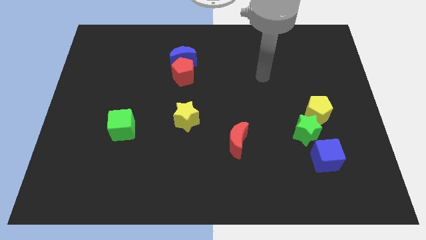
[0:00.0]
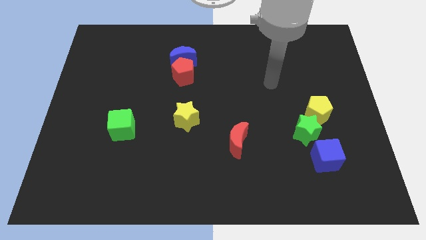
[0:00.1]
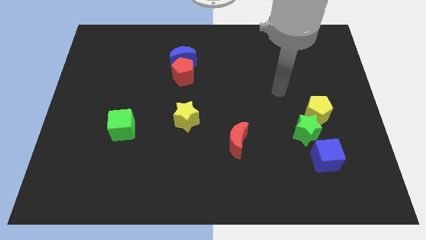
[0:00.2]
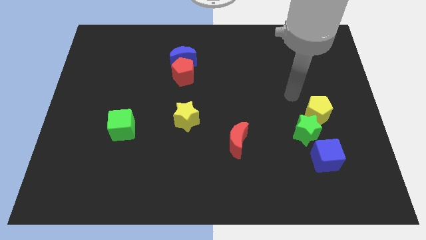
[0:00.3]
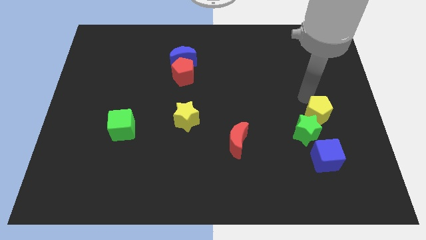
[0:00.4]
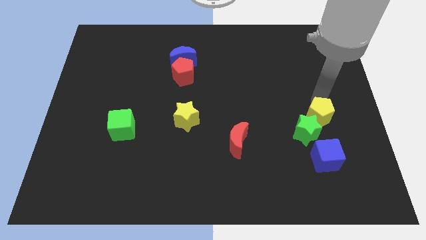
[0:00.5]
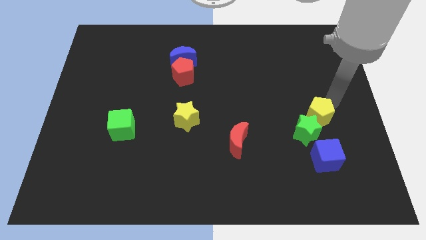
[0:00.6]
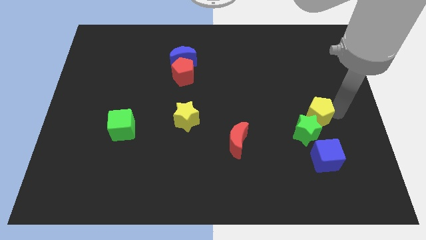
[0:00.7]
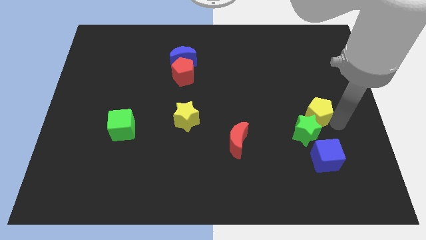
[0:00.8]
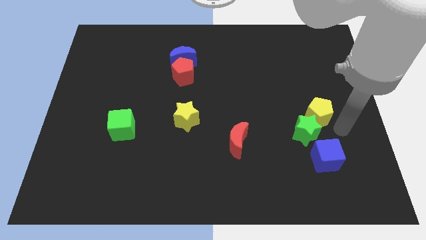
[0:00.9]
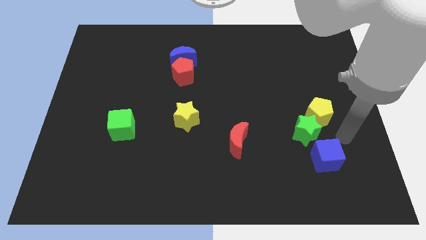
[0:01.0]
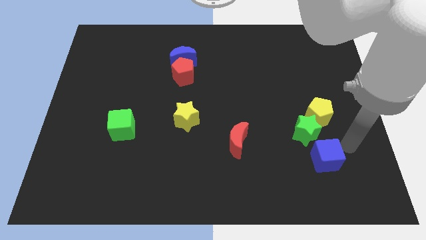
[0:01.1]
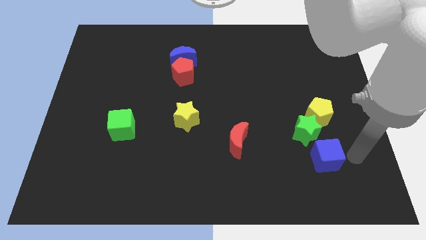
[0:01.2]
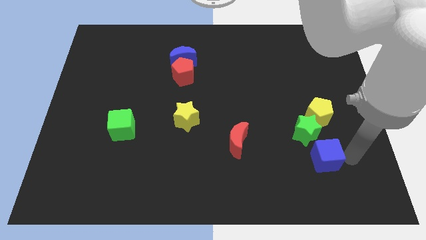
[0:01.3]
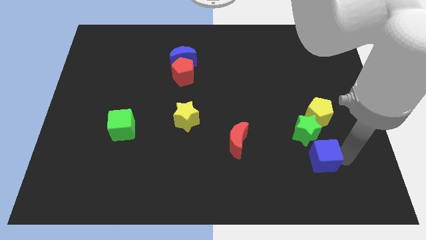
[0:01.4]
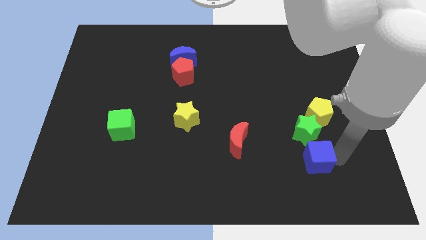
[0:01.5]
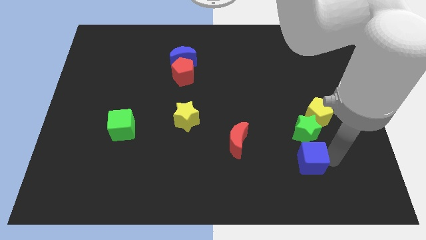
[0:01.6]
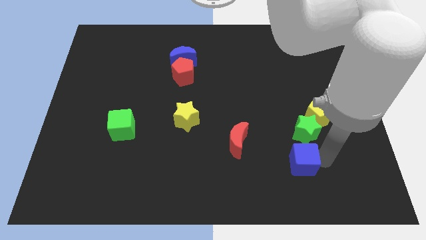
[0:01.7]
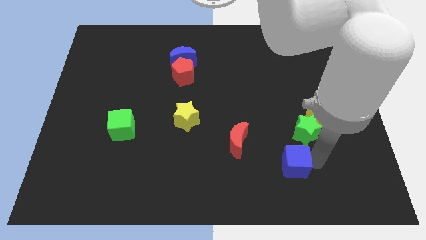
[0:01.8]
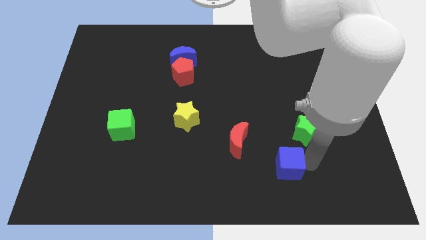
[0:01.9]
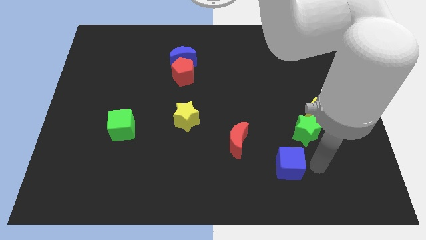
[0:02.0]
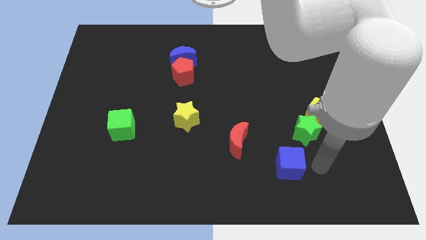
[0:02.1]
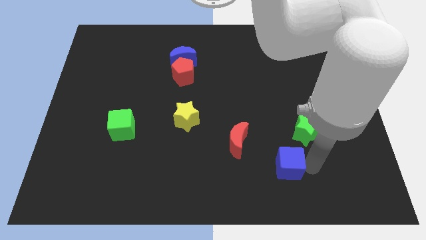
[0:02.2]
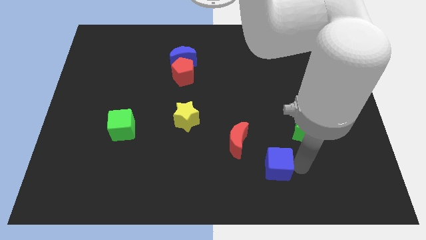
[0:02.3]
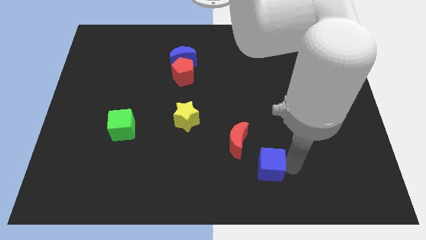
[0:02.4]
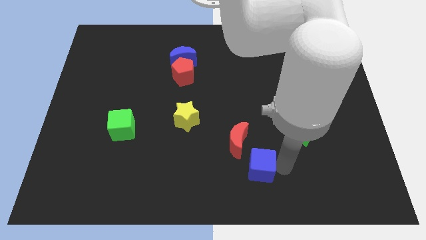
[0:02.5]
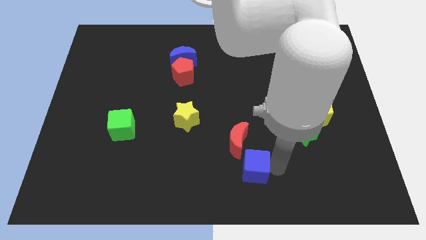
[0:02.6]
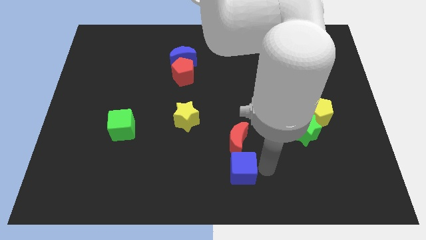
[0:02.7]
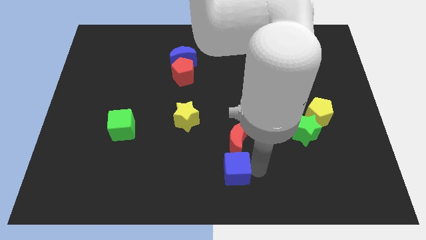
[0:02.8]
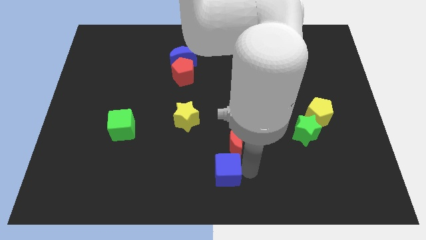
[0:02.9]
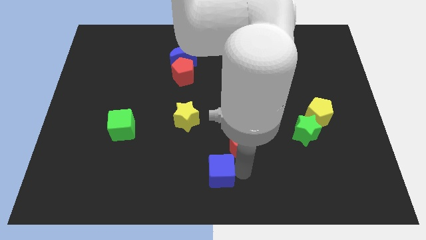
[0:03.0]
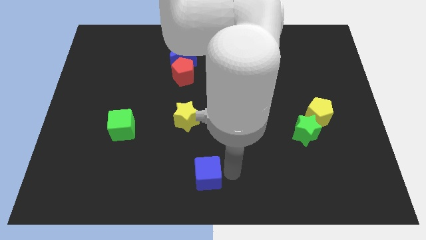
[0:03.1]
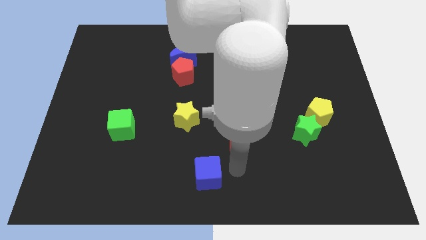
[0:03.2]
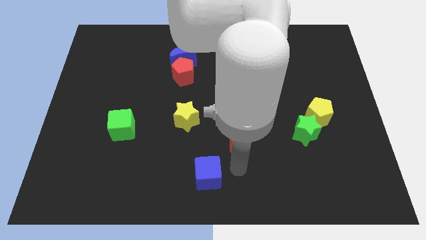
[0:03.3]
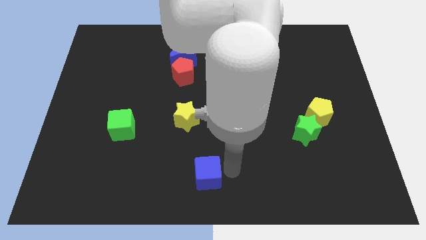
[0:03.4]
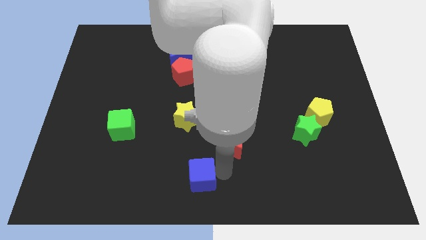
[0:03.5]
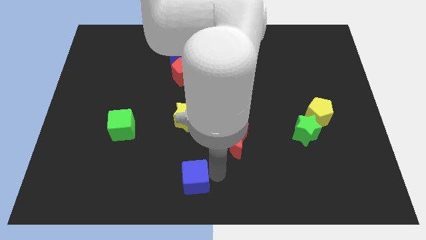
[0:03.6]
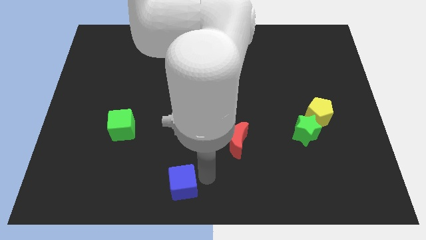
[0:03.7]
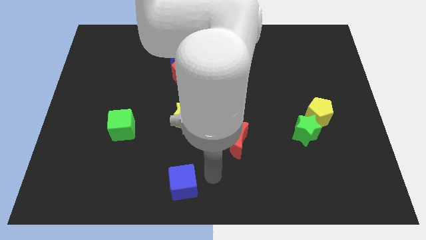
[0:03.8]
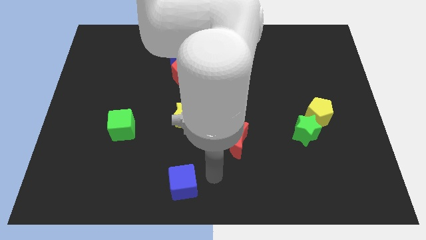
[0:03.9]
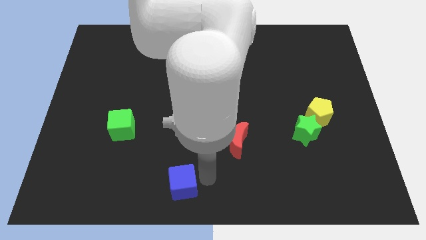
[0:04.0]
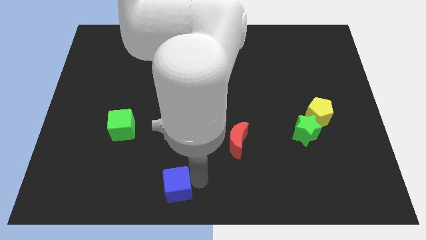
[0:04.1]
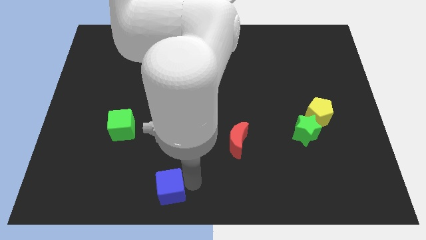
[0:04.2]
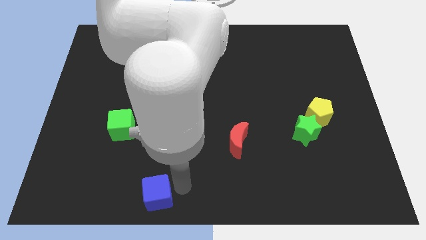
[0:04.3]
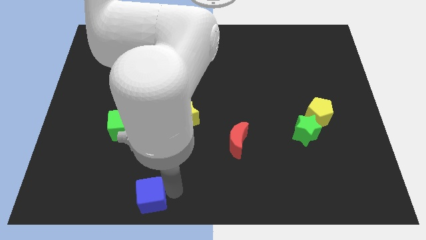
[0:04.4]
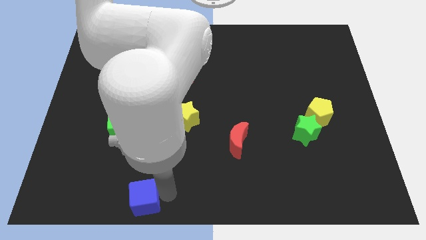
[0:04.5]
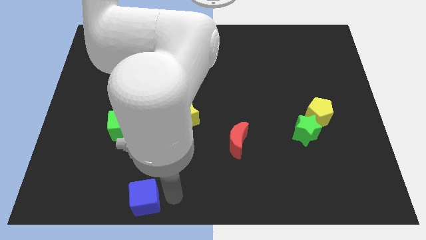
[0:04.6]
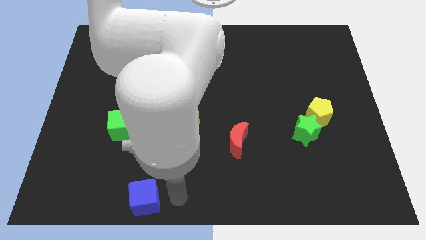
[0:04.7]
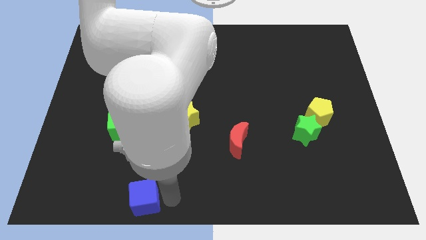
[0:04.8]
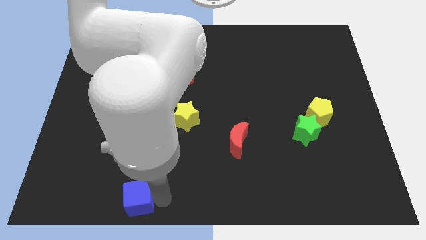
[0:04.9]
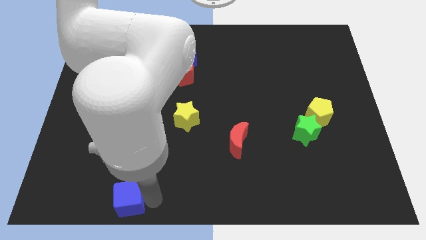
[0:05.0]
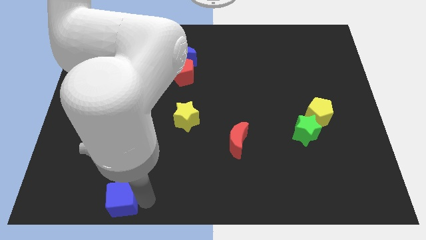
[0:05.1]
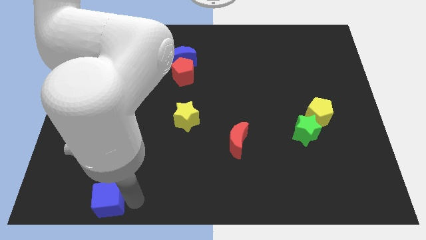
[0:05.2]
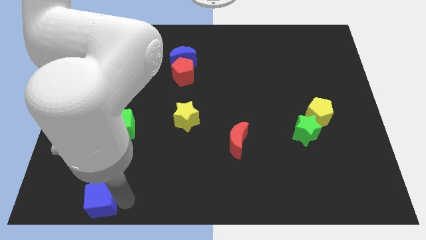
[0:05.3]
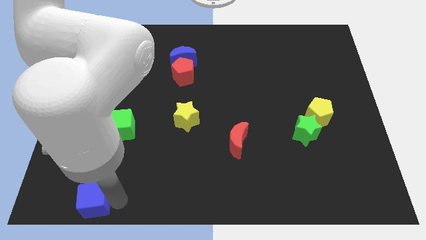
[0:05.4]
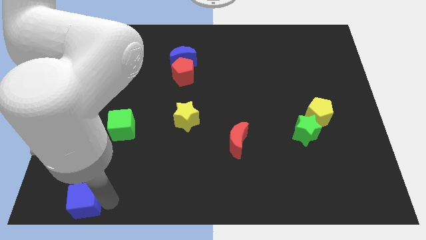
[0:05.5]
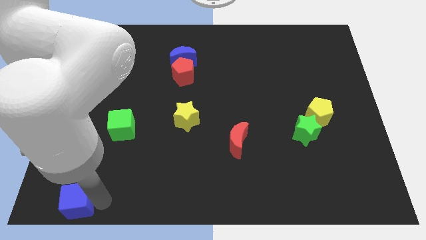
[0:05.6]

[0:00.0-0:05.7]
move the blue cube to the lower left corner

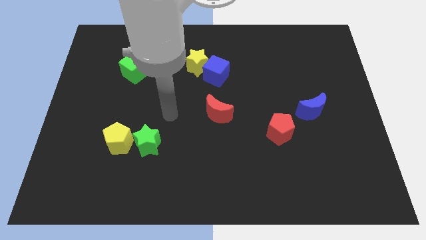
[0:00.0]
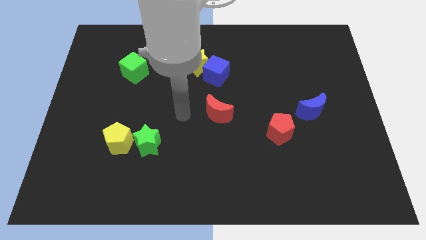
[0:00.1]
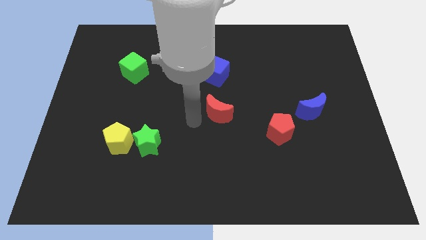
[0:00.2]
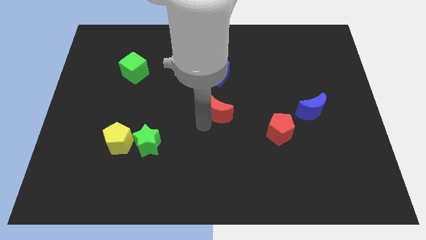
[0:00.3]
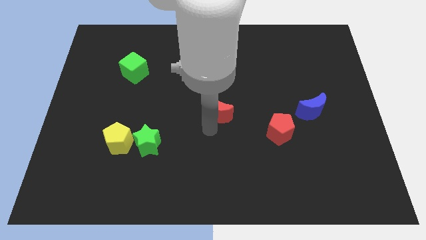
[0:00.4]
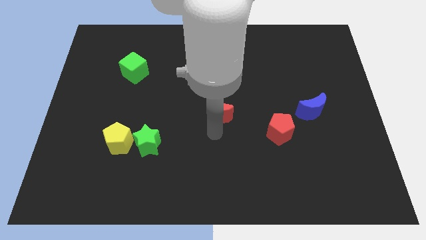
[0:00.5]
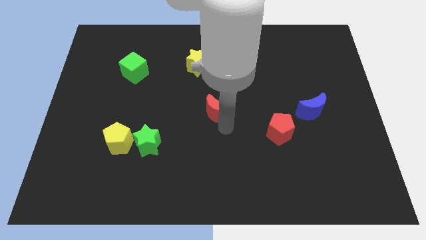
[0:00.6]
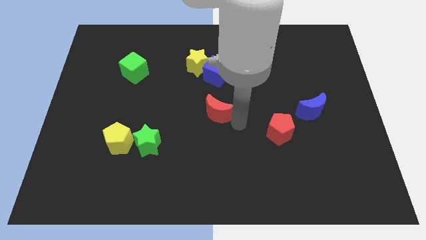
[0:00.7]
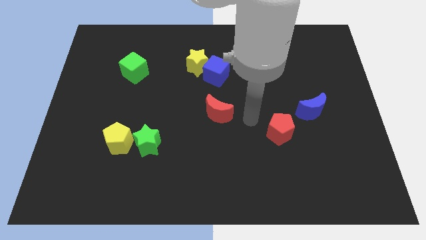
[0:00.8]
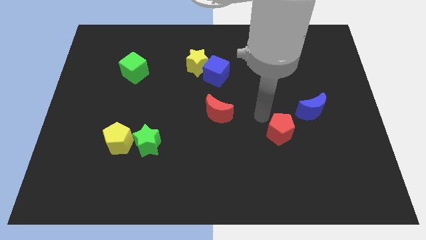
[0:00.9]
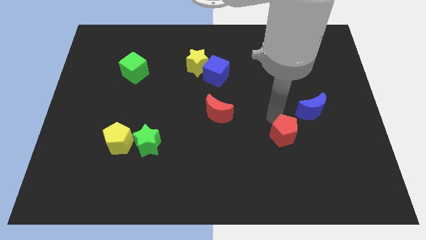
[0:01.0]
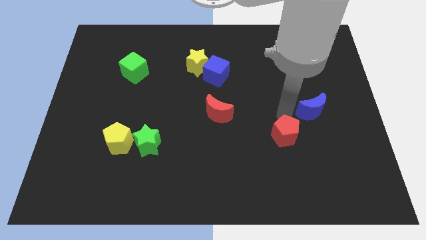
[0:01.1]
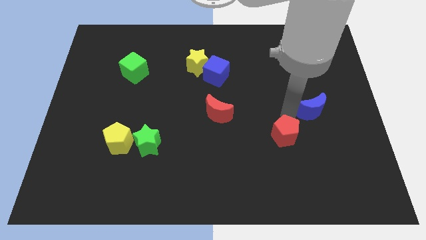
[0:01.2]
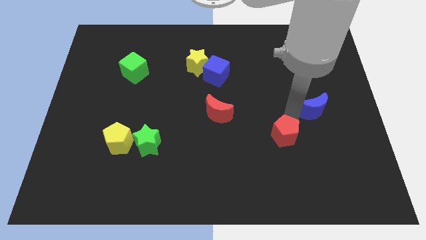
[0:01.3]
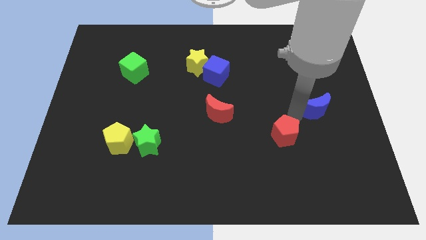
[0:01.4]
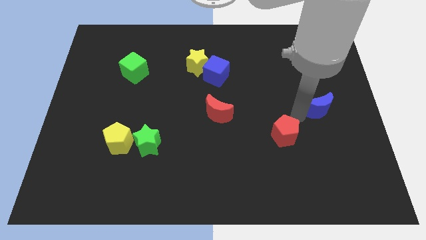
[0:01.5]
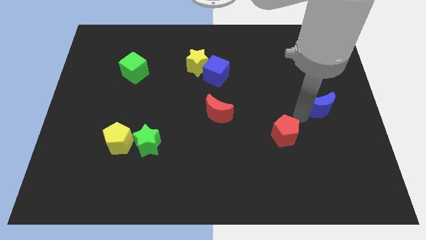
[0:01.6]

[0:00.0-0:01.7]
move the blue moon to the center right
